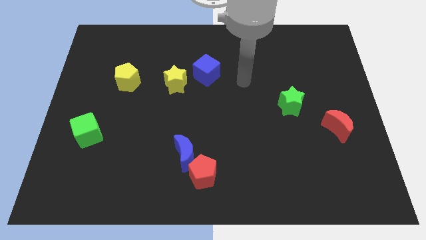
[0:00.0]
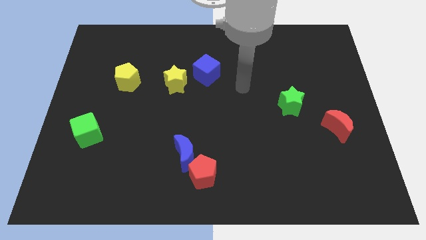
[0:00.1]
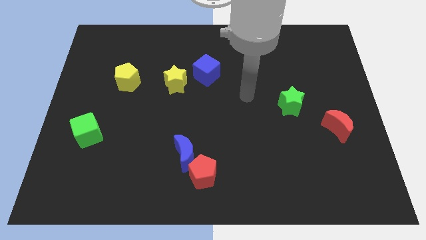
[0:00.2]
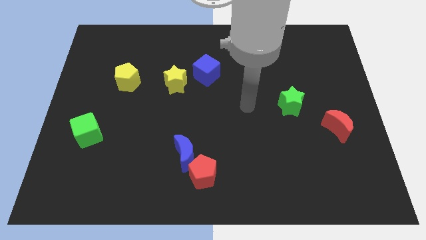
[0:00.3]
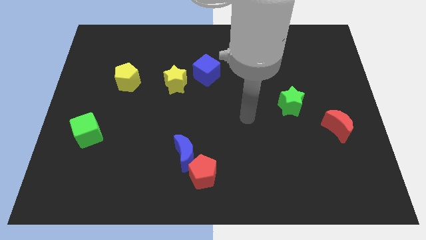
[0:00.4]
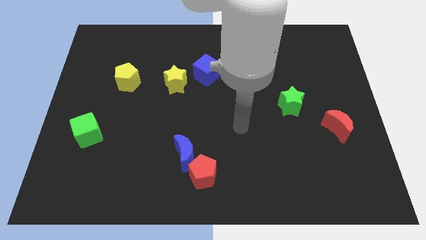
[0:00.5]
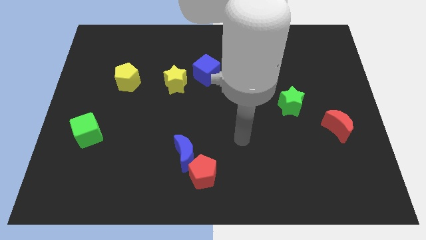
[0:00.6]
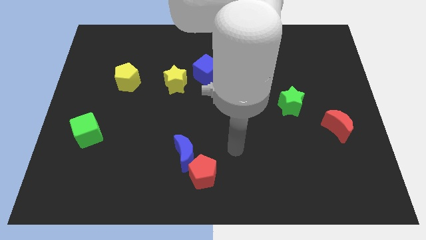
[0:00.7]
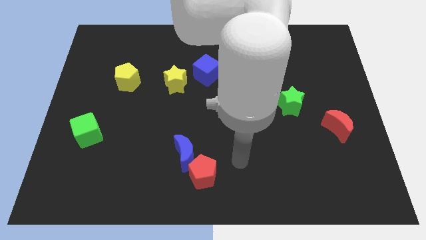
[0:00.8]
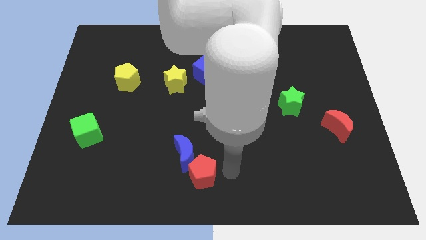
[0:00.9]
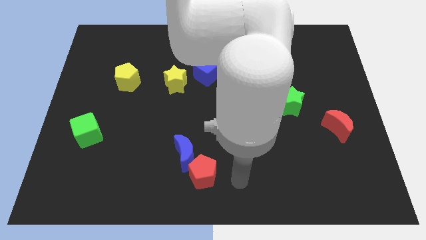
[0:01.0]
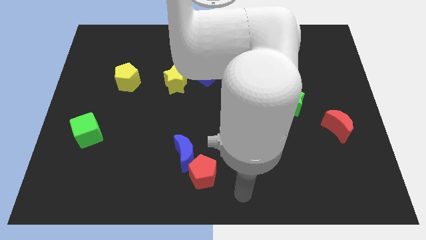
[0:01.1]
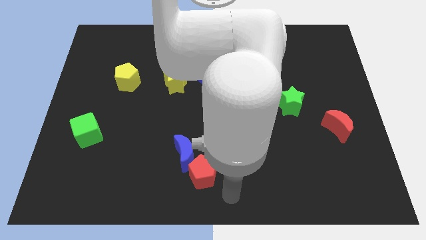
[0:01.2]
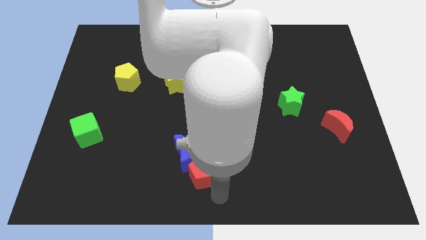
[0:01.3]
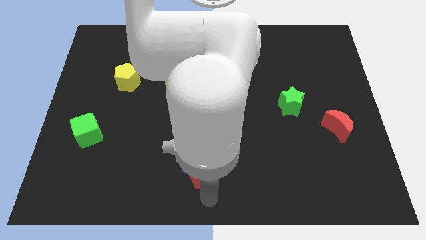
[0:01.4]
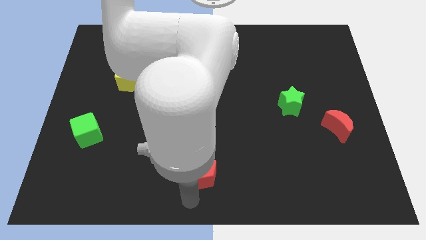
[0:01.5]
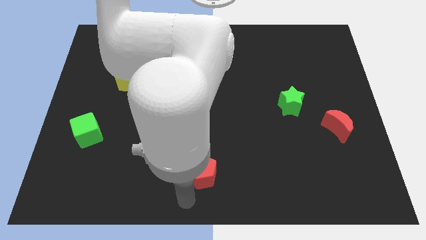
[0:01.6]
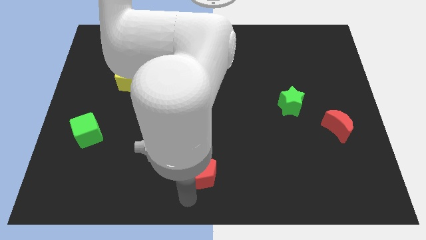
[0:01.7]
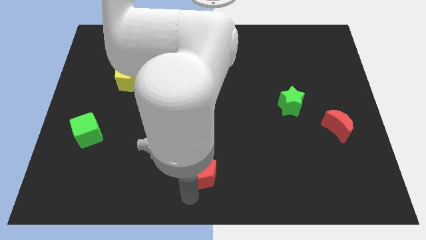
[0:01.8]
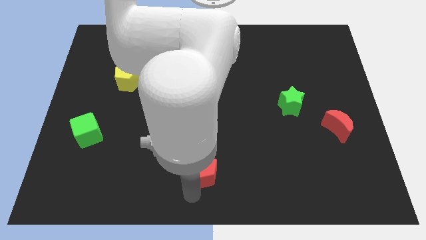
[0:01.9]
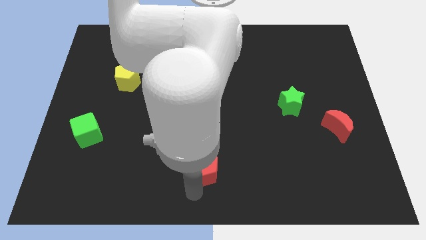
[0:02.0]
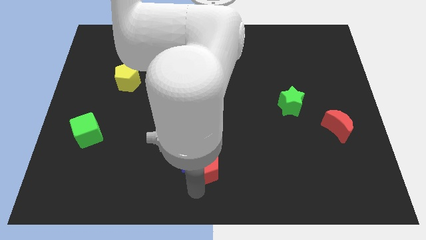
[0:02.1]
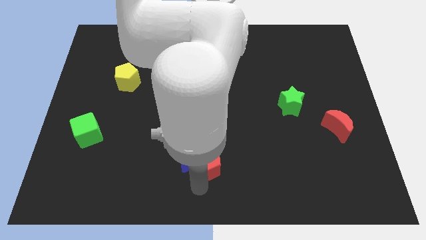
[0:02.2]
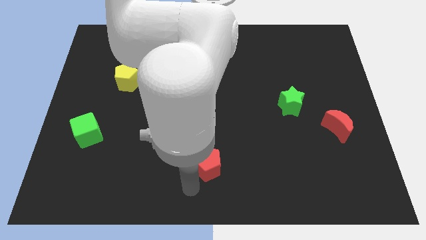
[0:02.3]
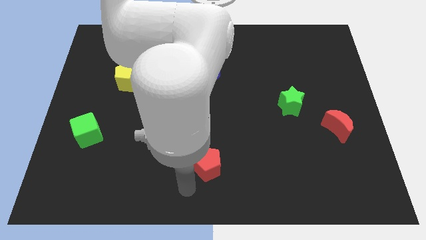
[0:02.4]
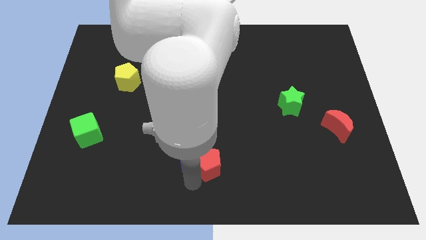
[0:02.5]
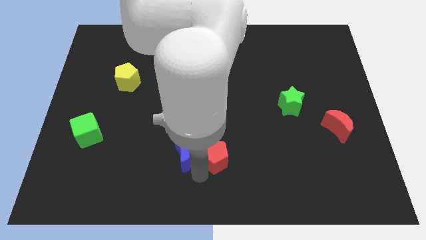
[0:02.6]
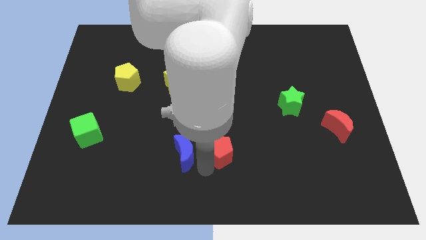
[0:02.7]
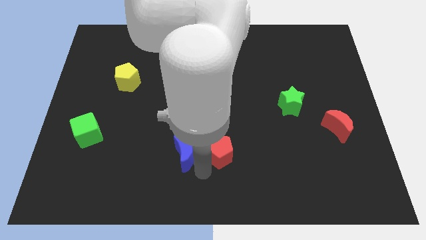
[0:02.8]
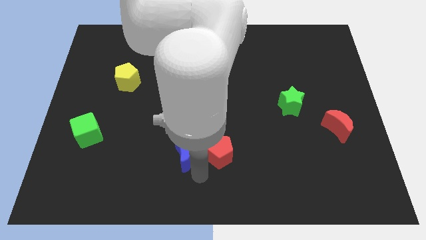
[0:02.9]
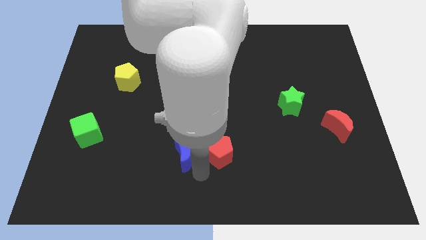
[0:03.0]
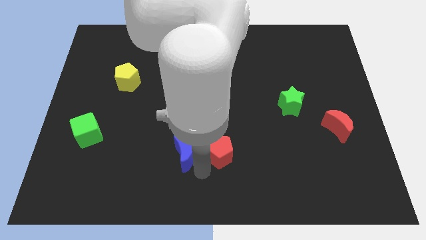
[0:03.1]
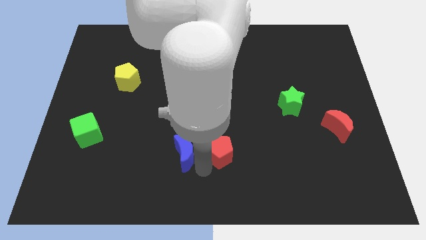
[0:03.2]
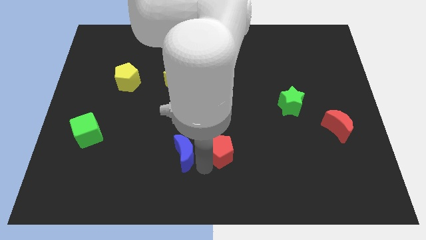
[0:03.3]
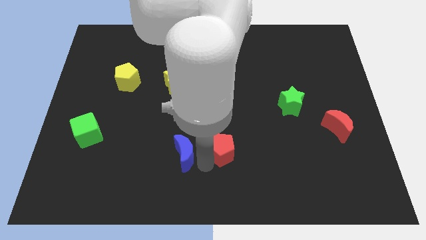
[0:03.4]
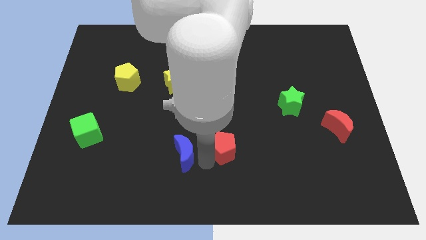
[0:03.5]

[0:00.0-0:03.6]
move the red pentagon a little bit upwards and then to the right

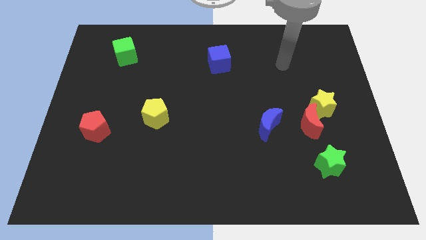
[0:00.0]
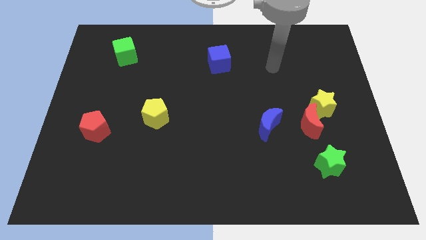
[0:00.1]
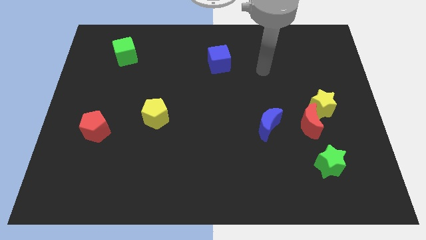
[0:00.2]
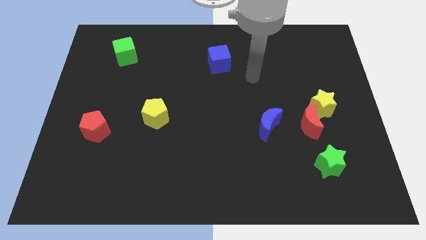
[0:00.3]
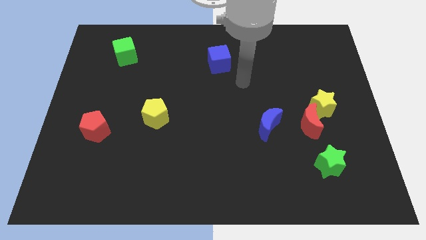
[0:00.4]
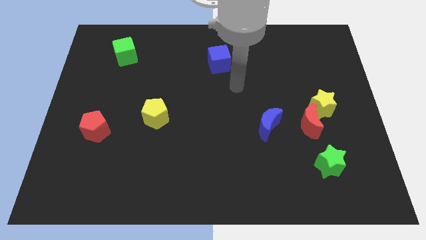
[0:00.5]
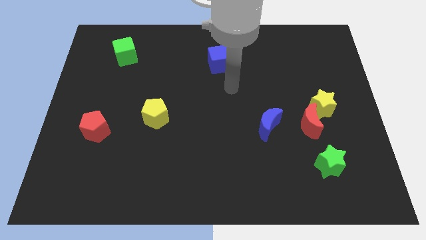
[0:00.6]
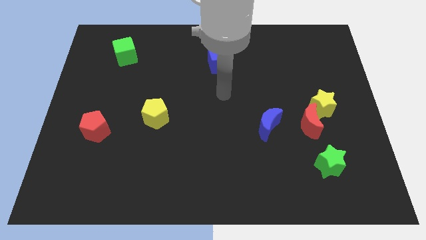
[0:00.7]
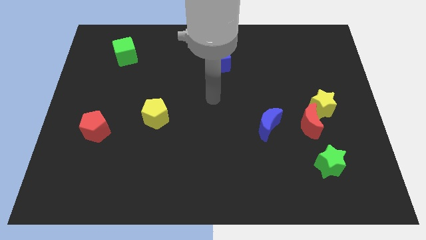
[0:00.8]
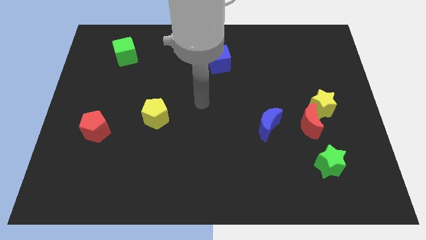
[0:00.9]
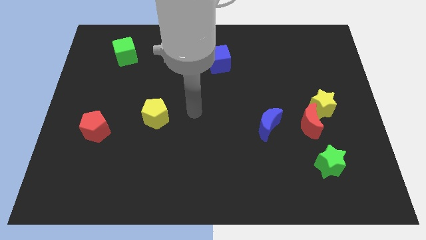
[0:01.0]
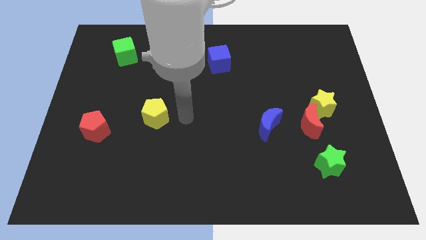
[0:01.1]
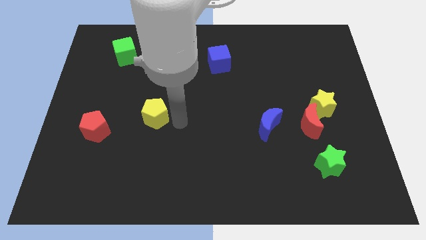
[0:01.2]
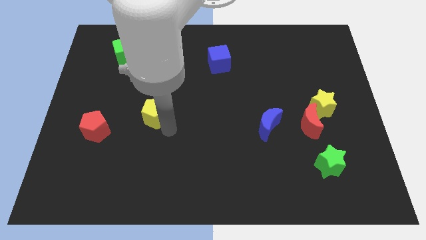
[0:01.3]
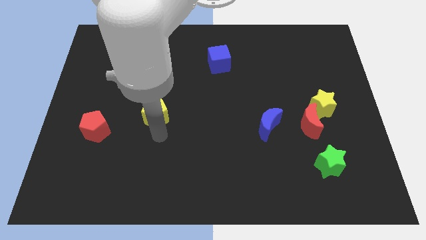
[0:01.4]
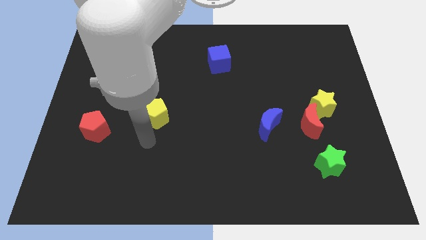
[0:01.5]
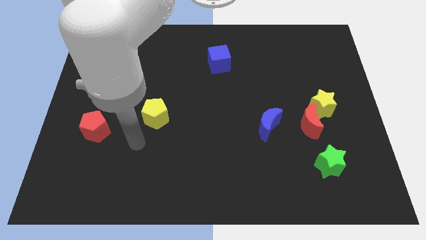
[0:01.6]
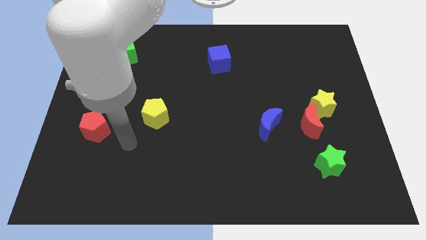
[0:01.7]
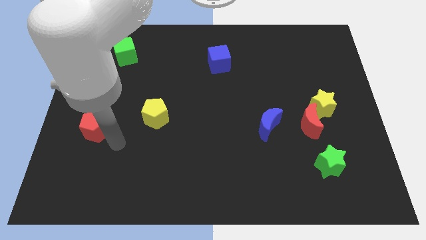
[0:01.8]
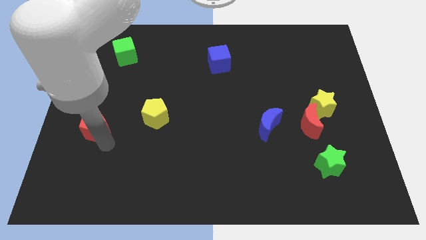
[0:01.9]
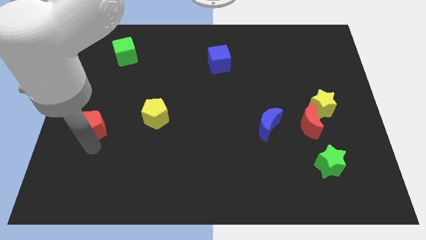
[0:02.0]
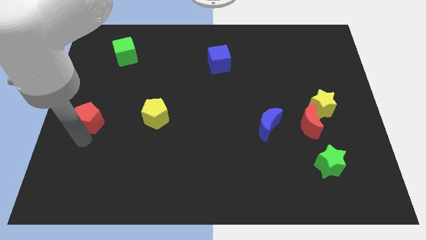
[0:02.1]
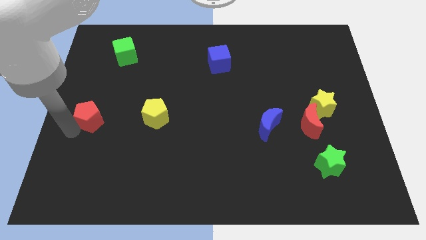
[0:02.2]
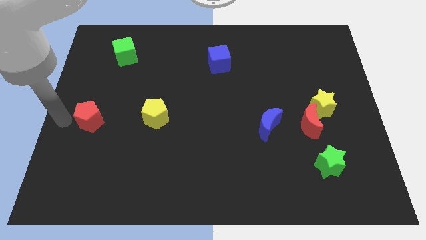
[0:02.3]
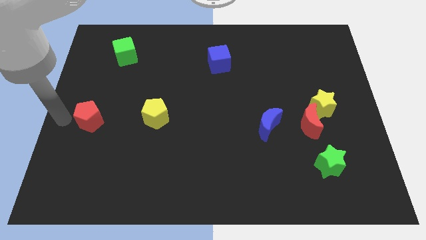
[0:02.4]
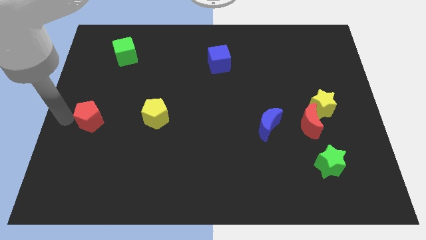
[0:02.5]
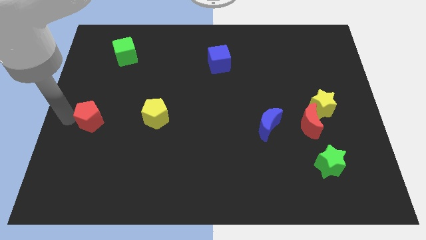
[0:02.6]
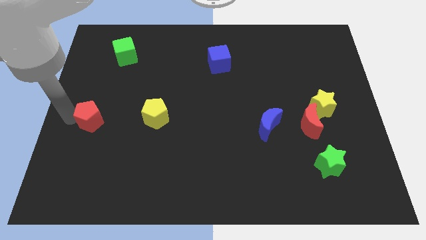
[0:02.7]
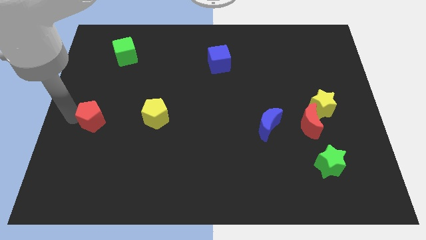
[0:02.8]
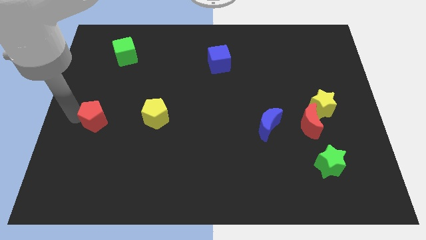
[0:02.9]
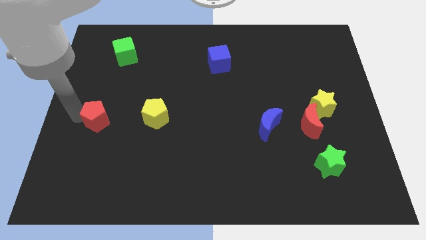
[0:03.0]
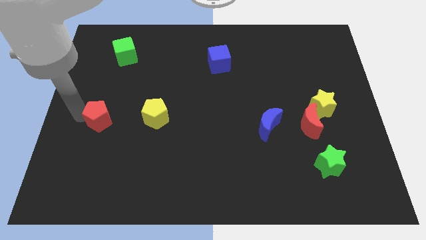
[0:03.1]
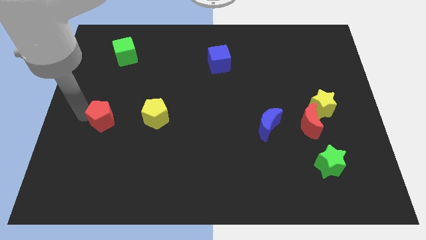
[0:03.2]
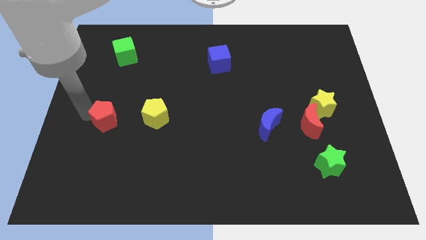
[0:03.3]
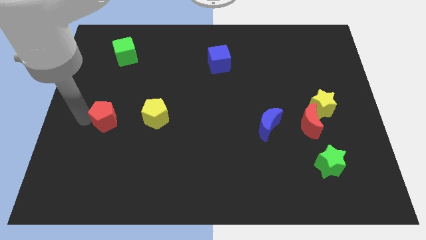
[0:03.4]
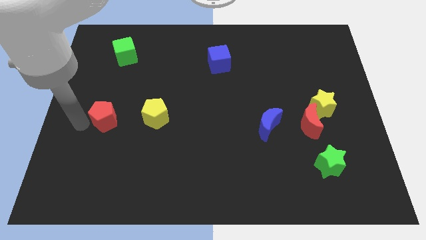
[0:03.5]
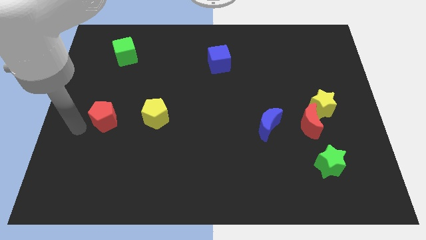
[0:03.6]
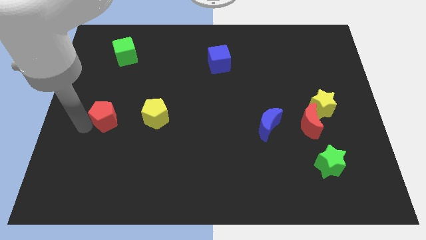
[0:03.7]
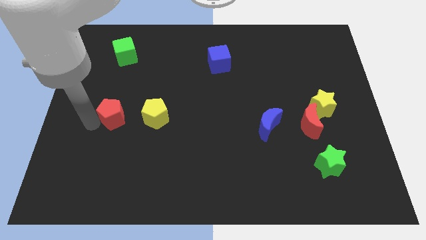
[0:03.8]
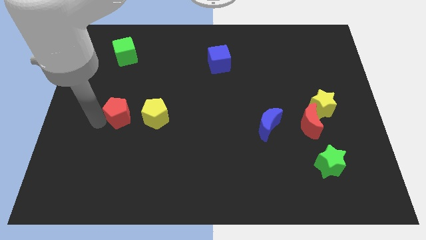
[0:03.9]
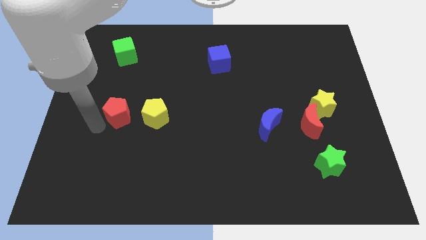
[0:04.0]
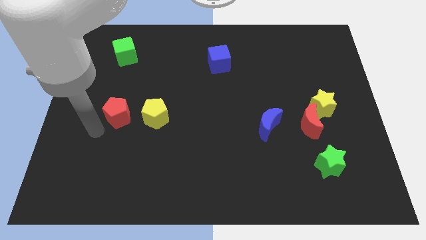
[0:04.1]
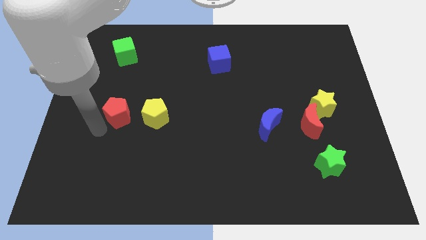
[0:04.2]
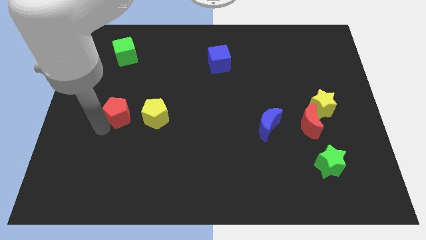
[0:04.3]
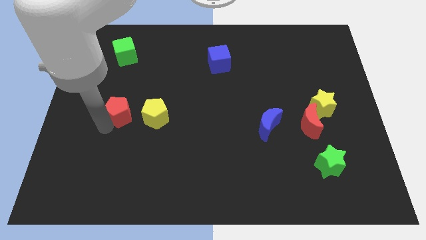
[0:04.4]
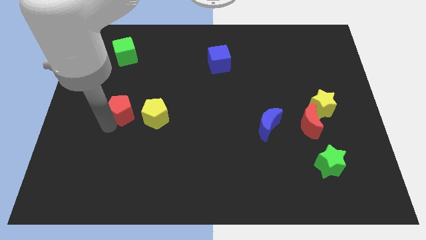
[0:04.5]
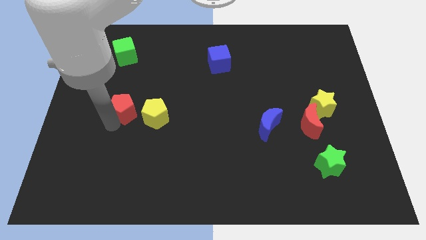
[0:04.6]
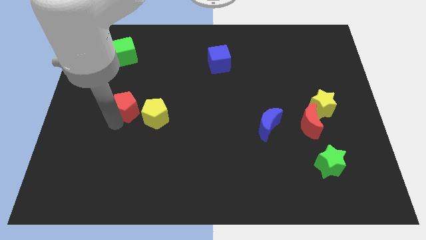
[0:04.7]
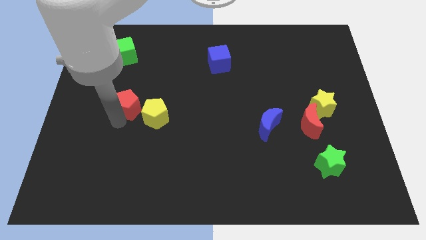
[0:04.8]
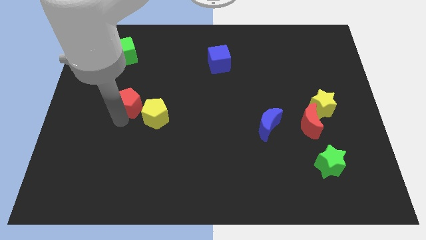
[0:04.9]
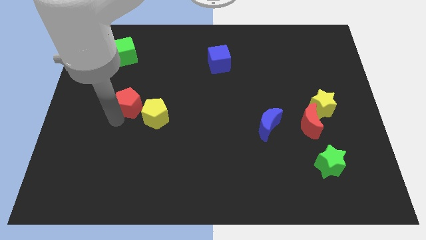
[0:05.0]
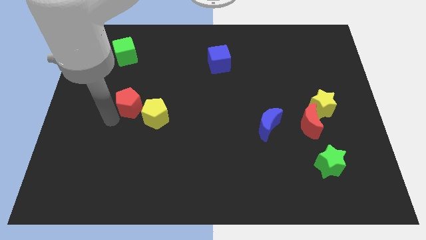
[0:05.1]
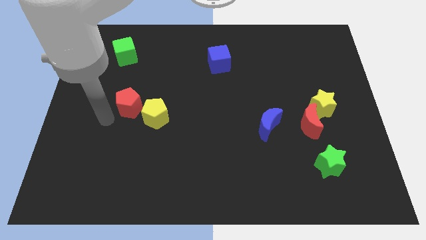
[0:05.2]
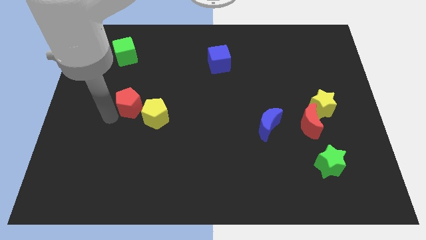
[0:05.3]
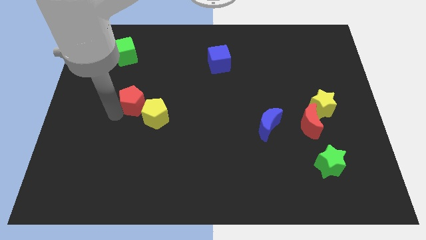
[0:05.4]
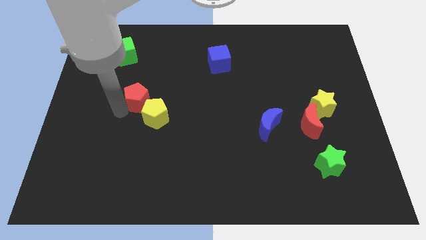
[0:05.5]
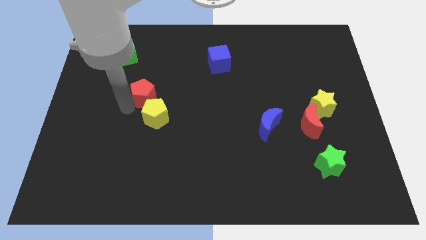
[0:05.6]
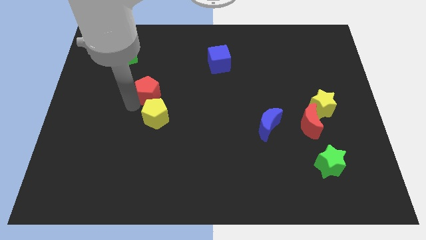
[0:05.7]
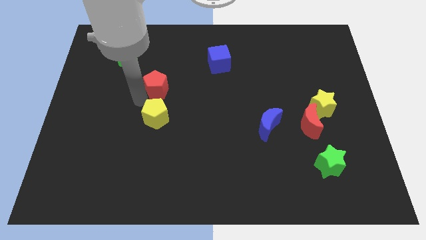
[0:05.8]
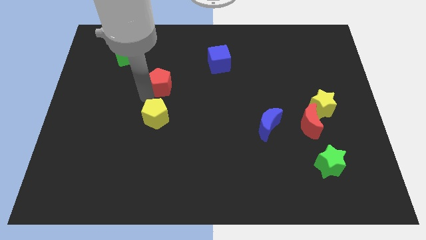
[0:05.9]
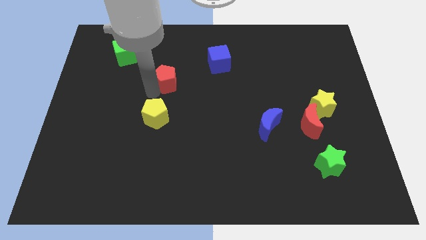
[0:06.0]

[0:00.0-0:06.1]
move the red pentagon up and right diagonally
